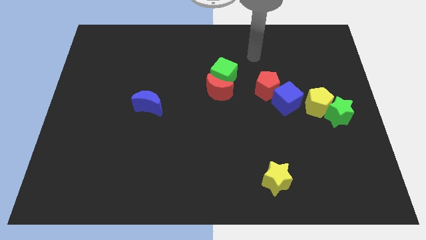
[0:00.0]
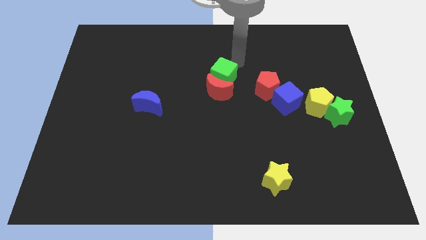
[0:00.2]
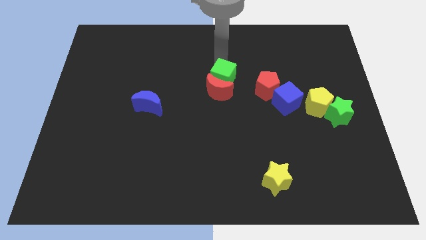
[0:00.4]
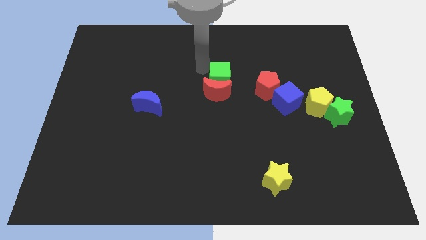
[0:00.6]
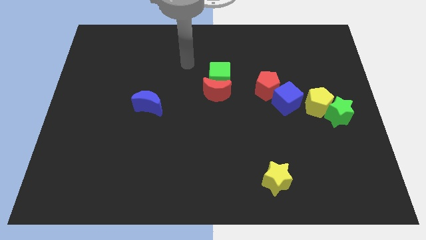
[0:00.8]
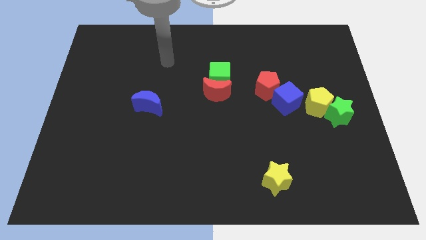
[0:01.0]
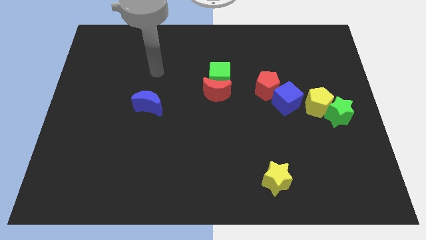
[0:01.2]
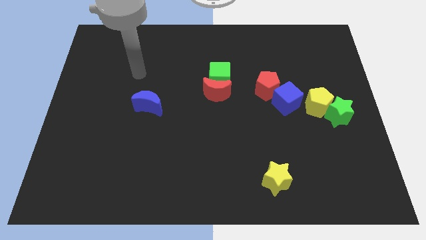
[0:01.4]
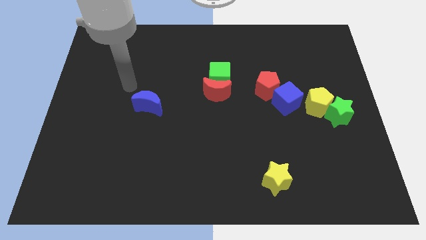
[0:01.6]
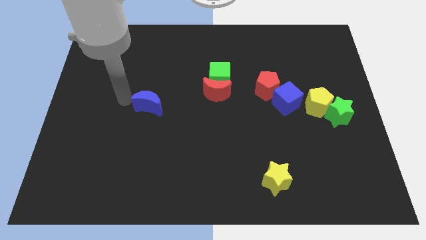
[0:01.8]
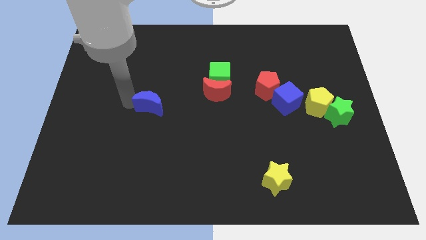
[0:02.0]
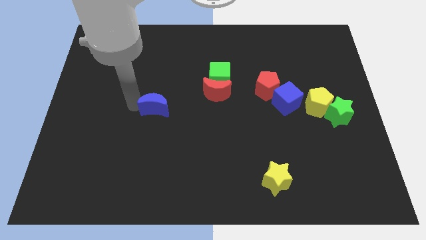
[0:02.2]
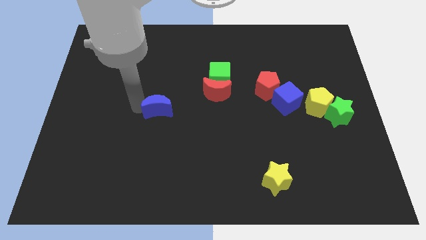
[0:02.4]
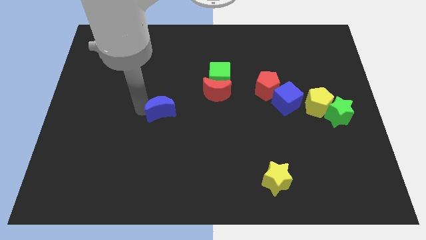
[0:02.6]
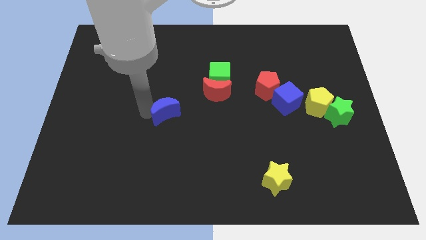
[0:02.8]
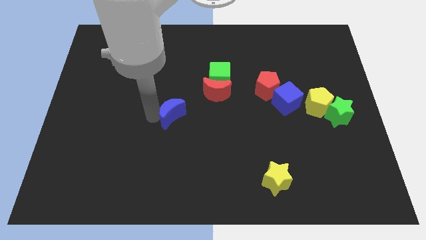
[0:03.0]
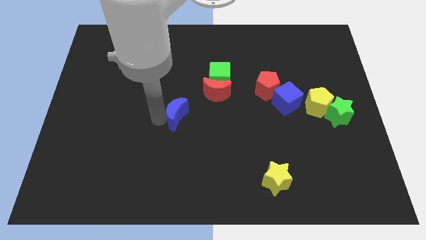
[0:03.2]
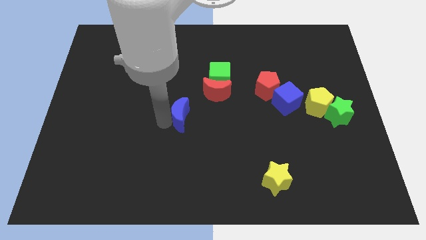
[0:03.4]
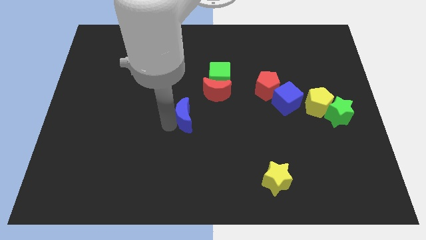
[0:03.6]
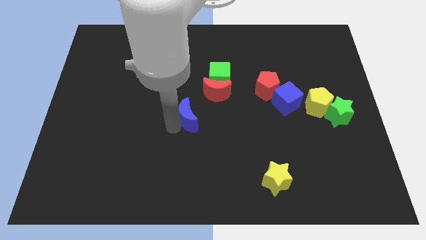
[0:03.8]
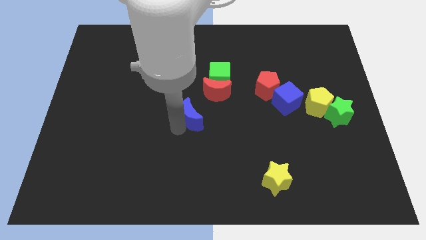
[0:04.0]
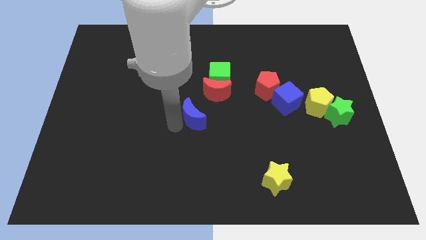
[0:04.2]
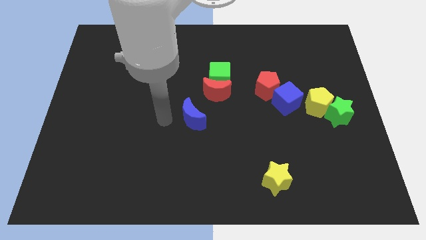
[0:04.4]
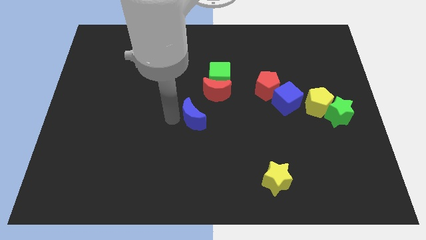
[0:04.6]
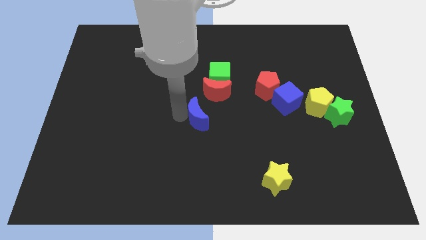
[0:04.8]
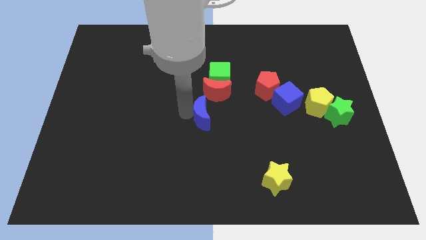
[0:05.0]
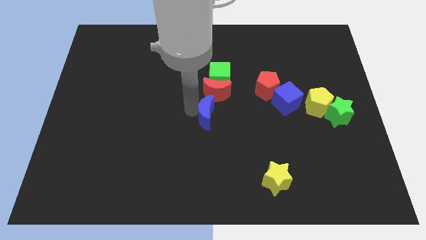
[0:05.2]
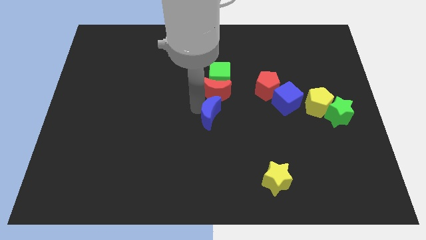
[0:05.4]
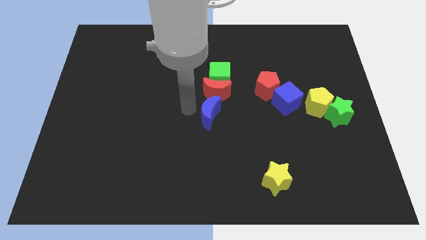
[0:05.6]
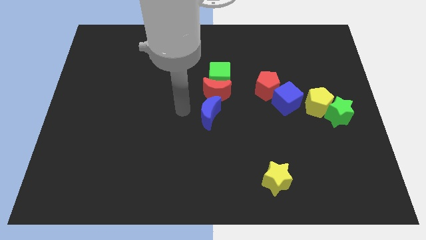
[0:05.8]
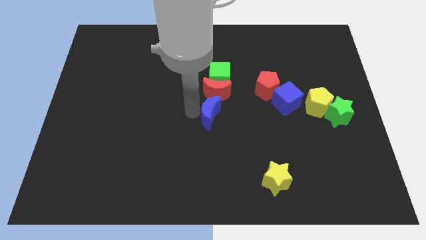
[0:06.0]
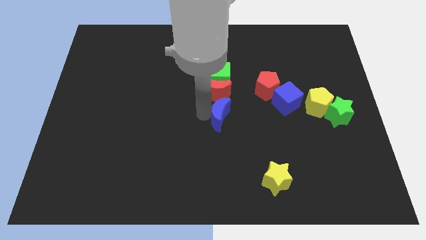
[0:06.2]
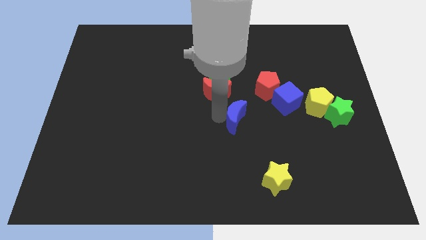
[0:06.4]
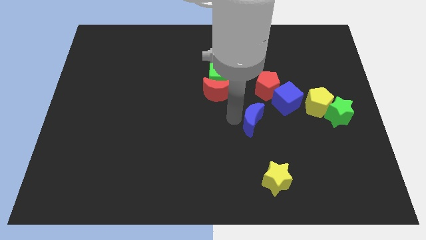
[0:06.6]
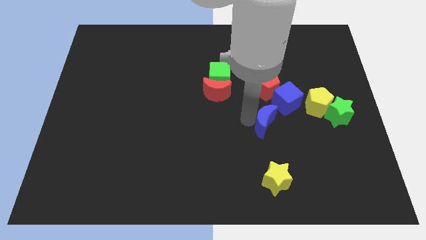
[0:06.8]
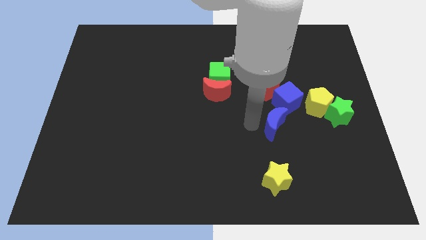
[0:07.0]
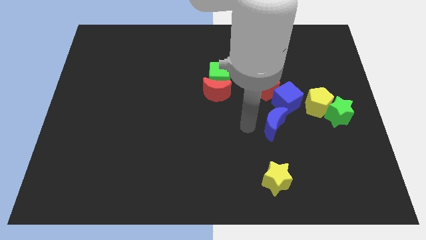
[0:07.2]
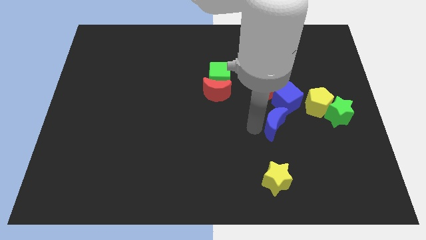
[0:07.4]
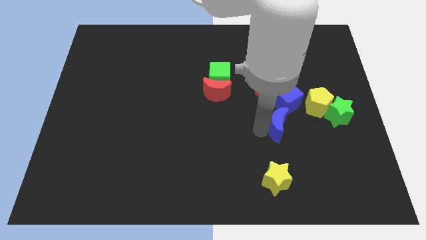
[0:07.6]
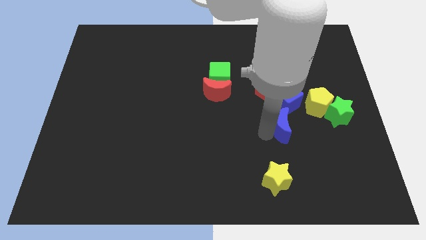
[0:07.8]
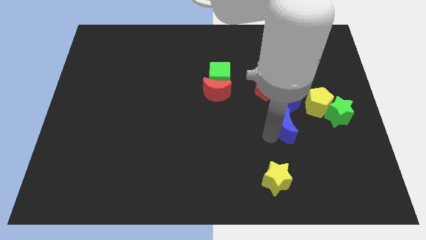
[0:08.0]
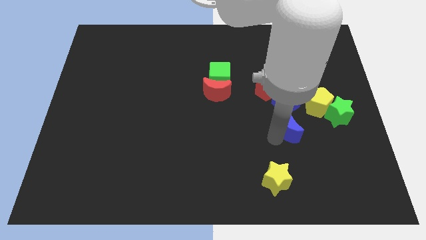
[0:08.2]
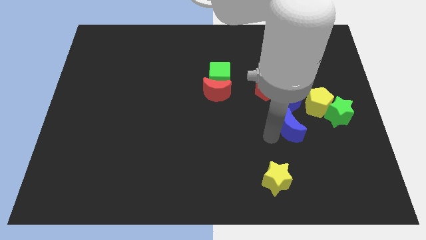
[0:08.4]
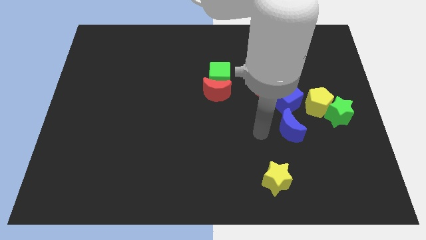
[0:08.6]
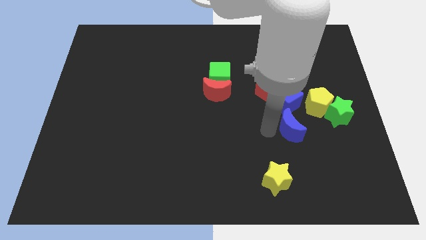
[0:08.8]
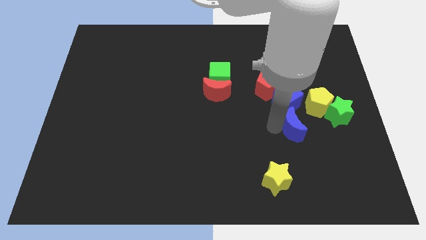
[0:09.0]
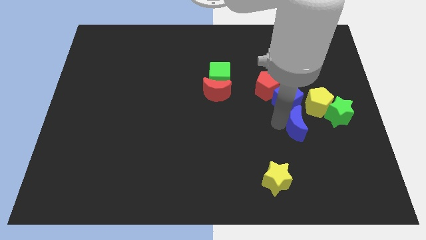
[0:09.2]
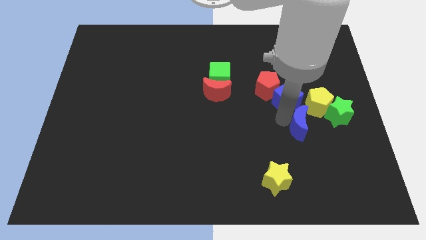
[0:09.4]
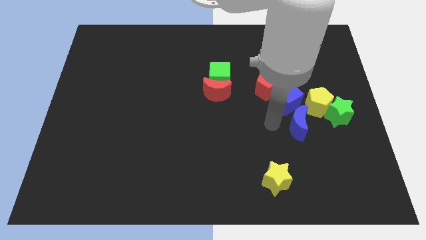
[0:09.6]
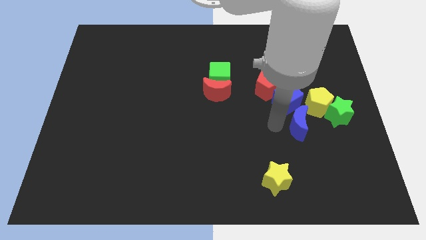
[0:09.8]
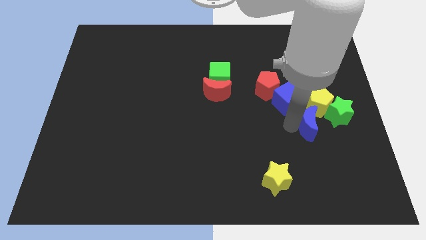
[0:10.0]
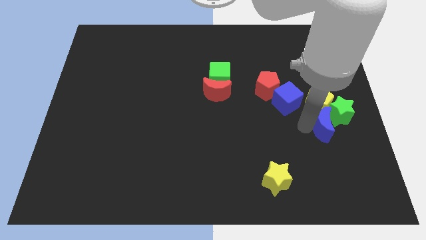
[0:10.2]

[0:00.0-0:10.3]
move the blue moon towards the green star

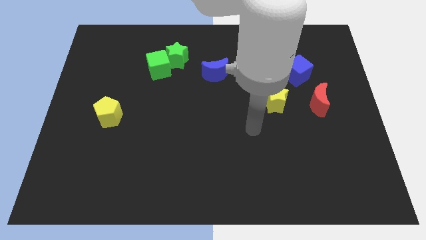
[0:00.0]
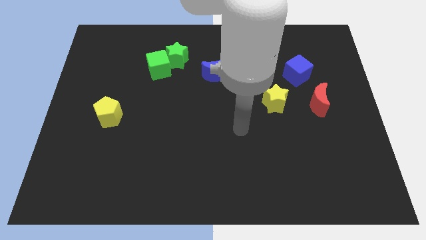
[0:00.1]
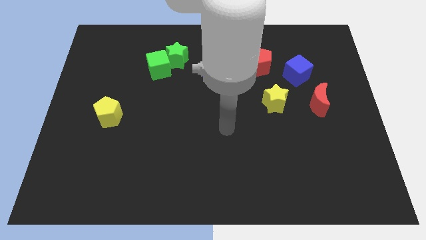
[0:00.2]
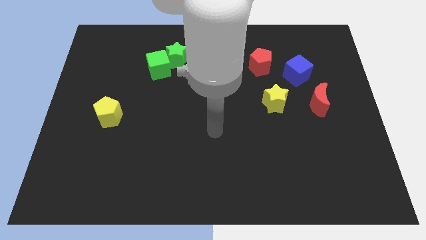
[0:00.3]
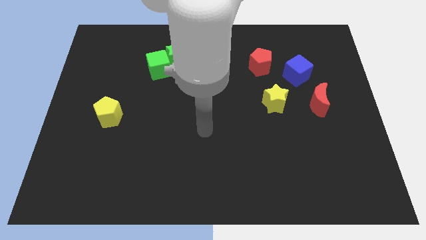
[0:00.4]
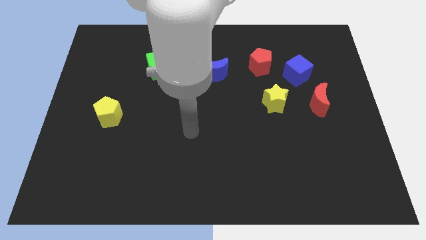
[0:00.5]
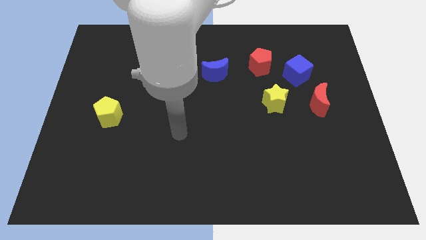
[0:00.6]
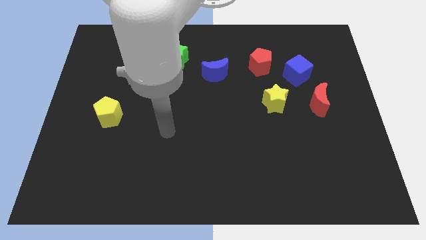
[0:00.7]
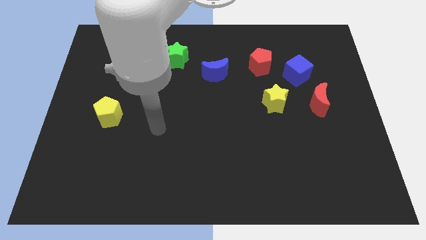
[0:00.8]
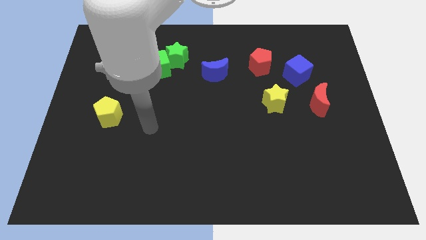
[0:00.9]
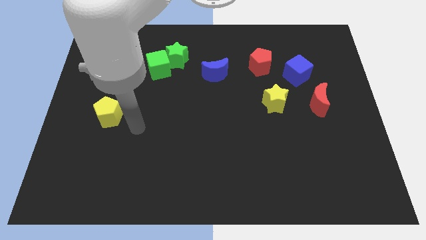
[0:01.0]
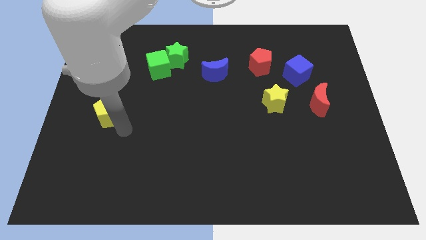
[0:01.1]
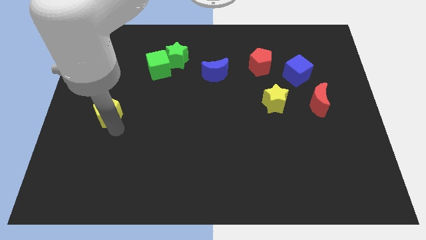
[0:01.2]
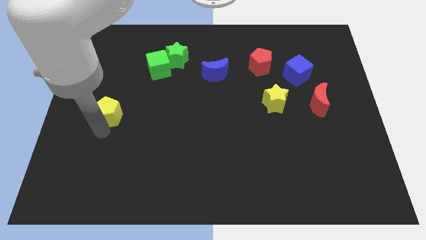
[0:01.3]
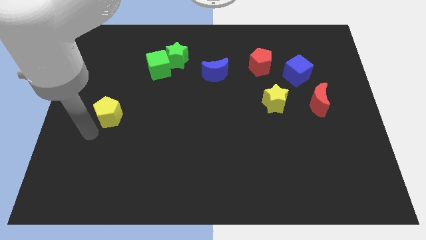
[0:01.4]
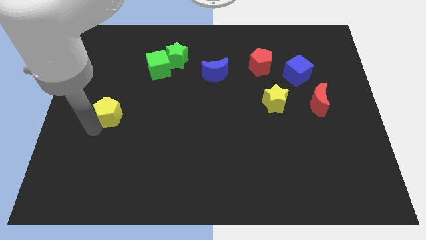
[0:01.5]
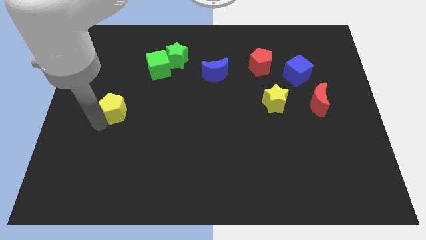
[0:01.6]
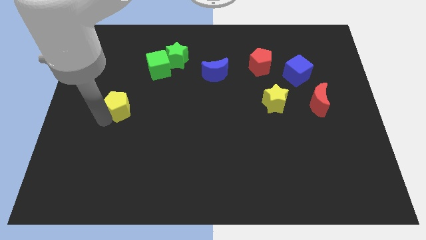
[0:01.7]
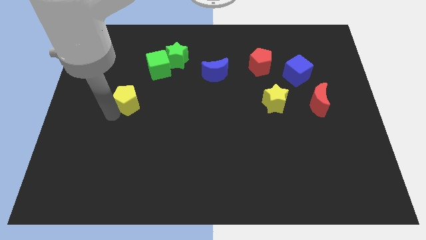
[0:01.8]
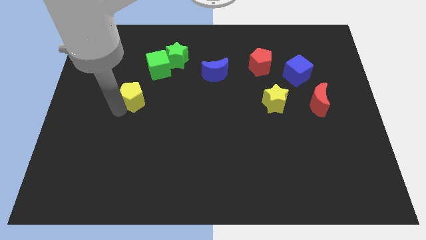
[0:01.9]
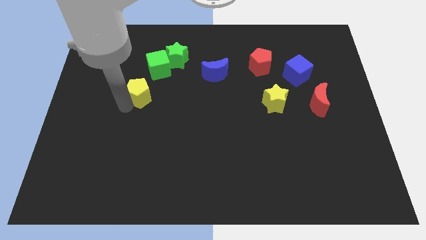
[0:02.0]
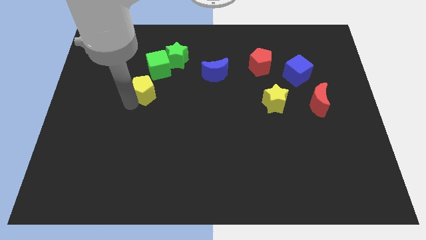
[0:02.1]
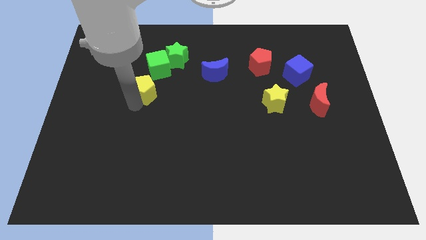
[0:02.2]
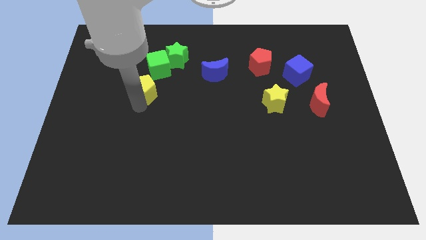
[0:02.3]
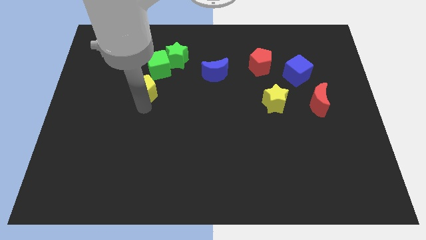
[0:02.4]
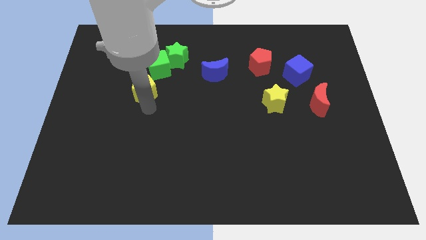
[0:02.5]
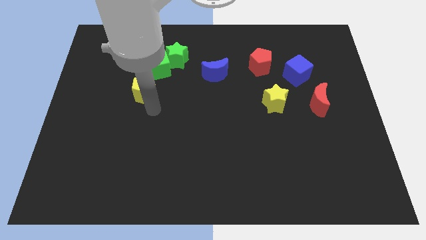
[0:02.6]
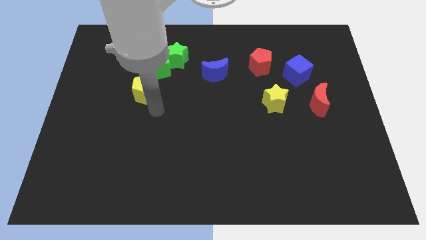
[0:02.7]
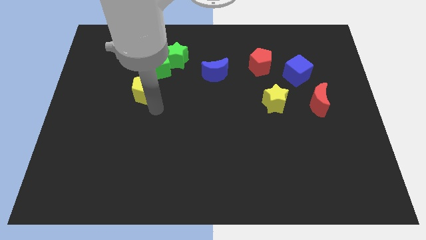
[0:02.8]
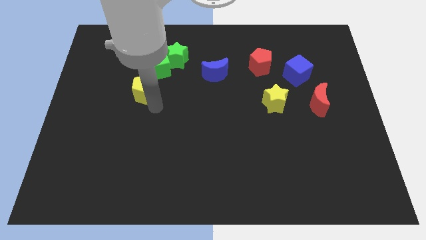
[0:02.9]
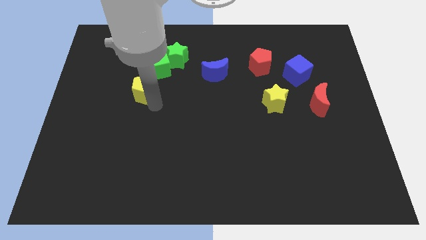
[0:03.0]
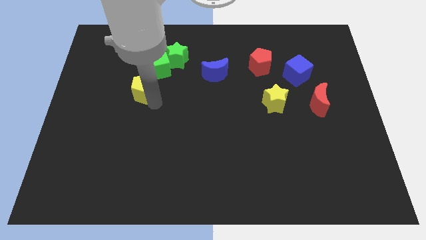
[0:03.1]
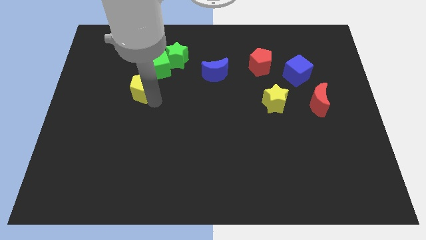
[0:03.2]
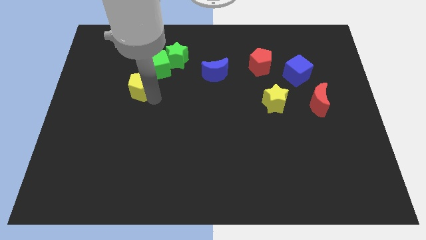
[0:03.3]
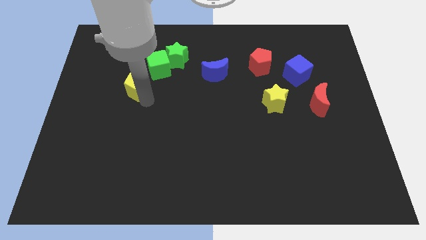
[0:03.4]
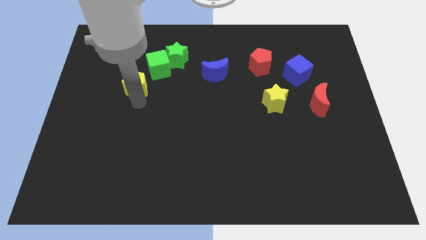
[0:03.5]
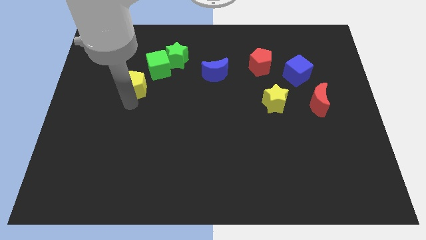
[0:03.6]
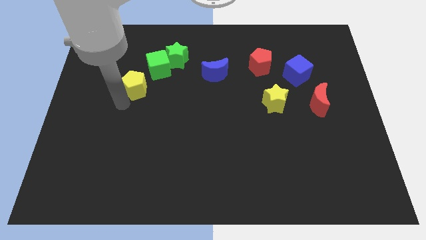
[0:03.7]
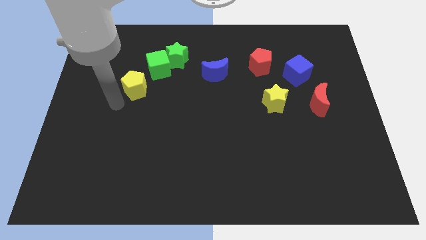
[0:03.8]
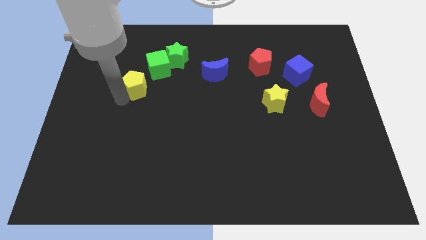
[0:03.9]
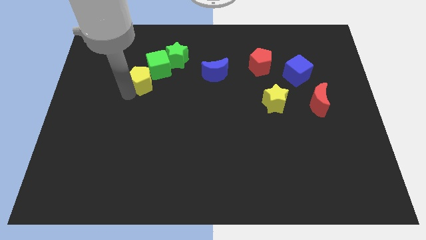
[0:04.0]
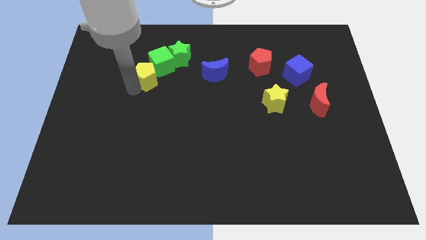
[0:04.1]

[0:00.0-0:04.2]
put the yellow pentagon close to the green cube
